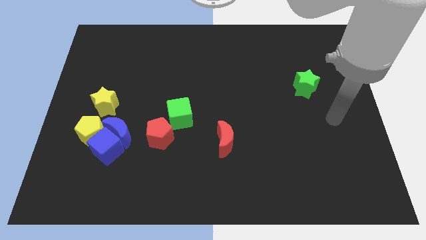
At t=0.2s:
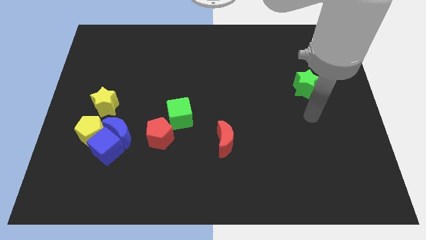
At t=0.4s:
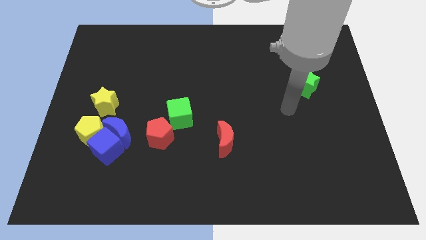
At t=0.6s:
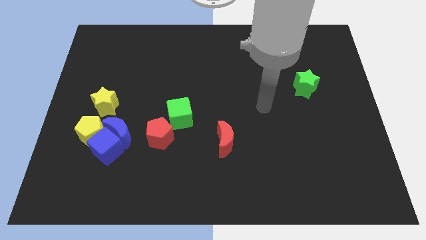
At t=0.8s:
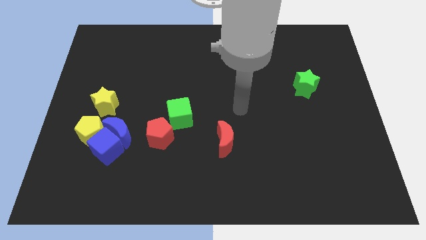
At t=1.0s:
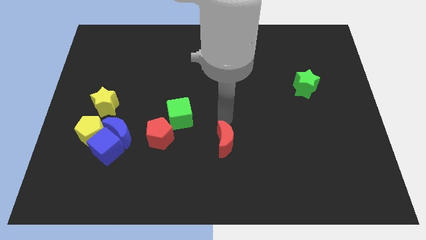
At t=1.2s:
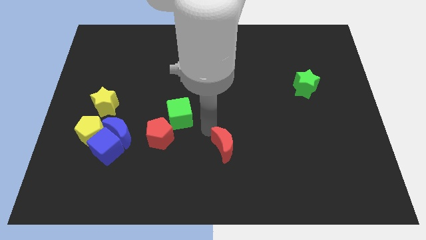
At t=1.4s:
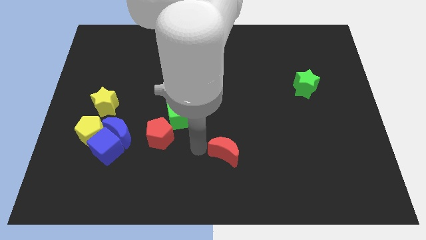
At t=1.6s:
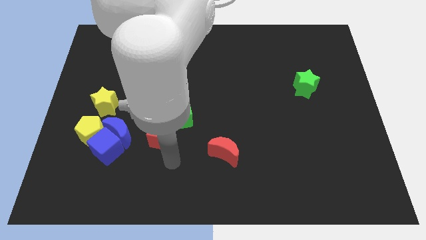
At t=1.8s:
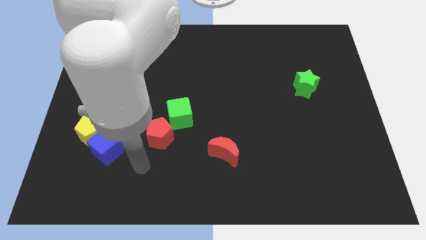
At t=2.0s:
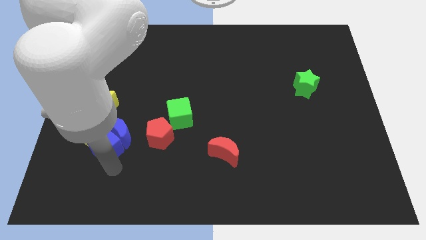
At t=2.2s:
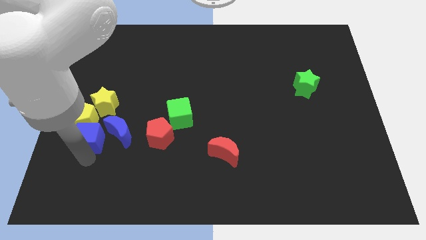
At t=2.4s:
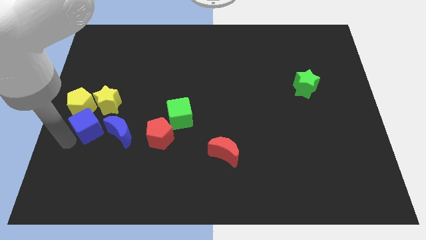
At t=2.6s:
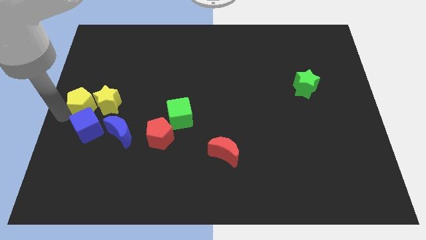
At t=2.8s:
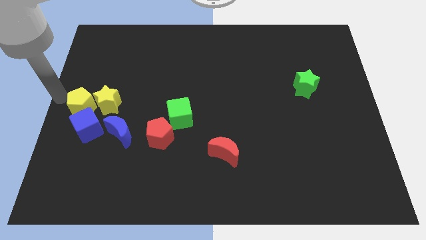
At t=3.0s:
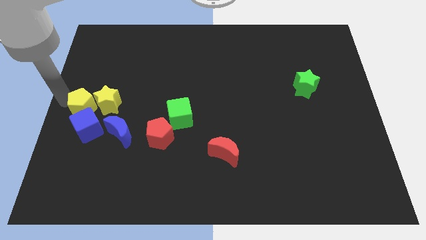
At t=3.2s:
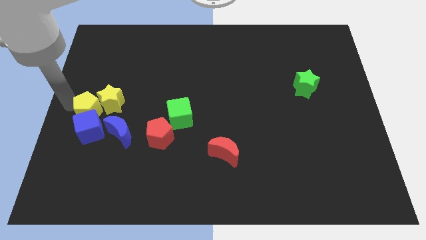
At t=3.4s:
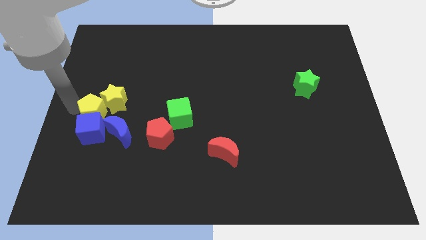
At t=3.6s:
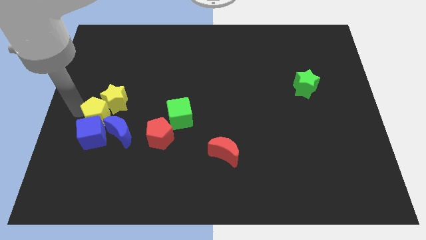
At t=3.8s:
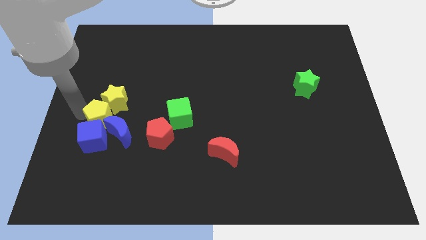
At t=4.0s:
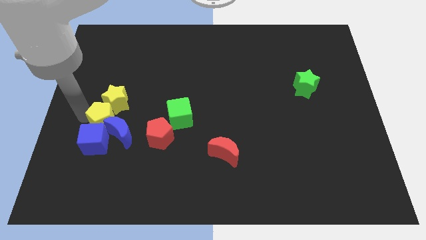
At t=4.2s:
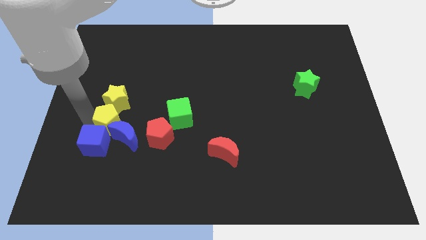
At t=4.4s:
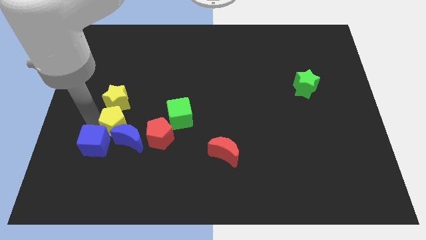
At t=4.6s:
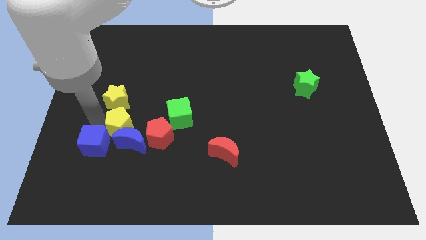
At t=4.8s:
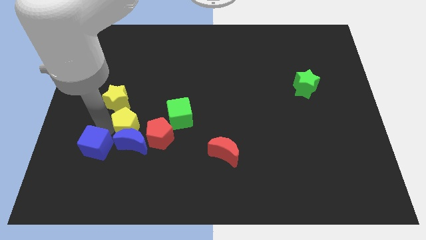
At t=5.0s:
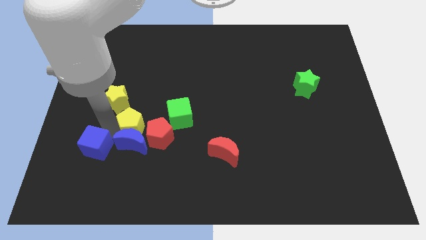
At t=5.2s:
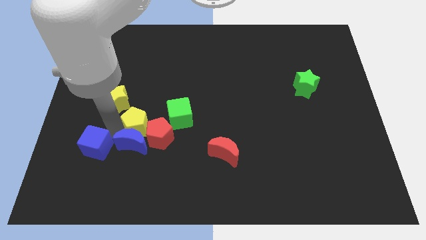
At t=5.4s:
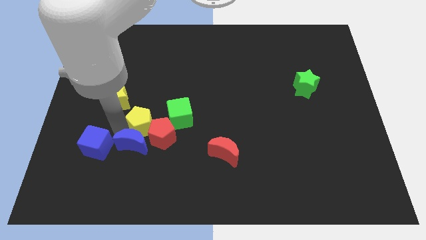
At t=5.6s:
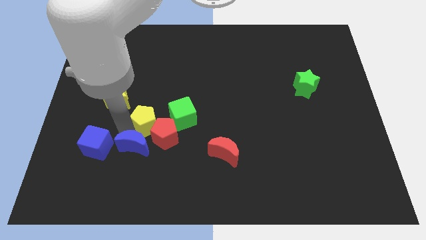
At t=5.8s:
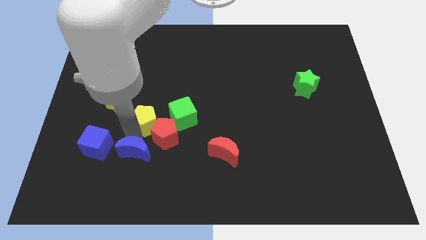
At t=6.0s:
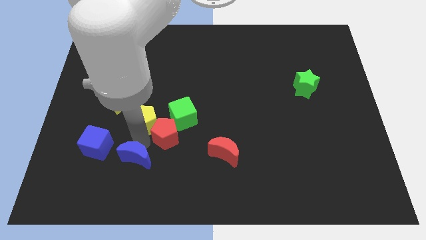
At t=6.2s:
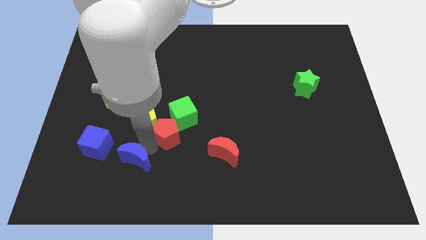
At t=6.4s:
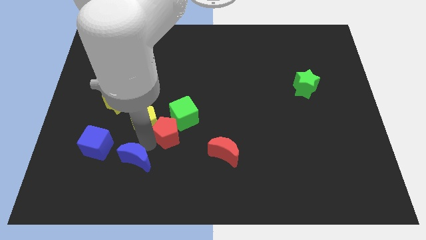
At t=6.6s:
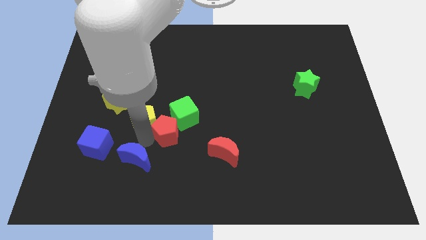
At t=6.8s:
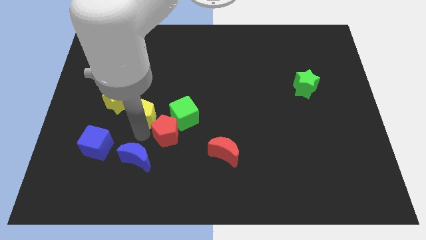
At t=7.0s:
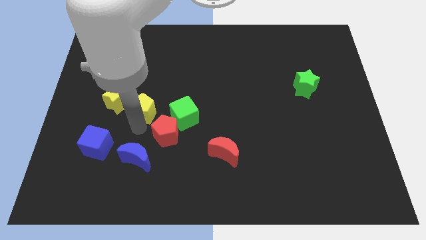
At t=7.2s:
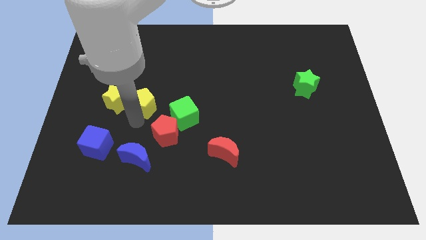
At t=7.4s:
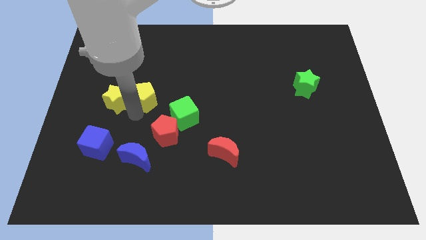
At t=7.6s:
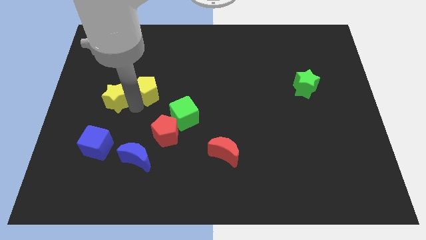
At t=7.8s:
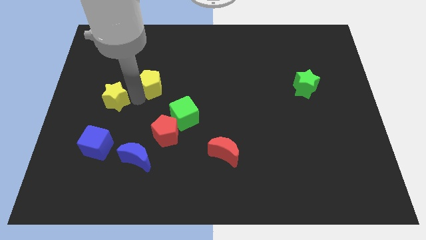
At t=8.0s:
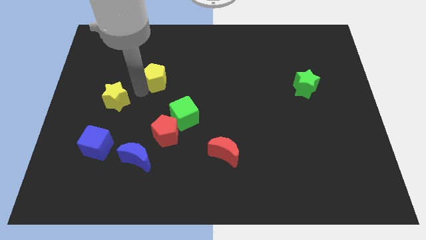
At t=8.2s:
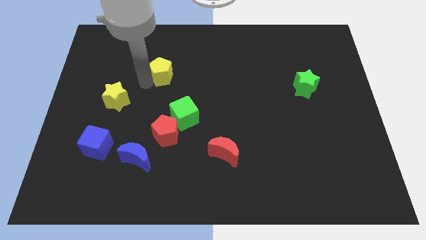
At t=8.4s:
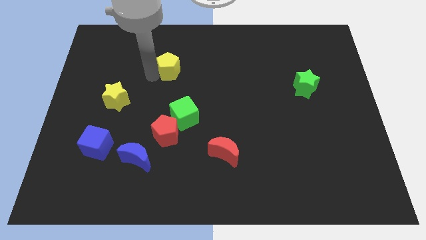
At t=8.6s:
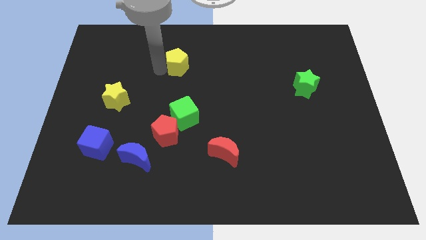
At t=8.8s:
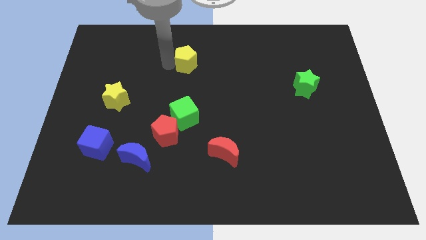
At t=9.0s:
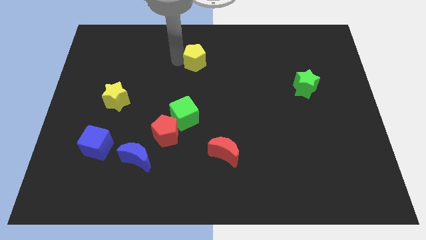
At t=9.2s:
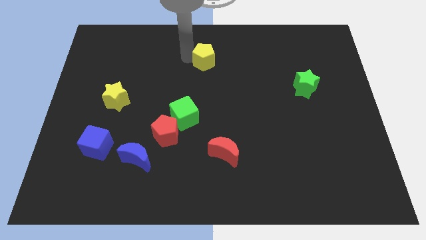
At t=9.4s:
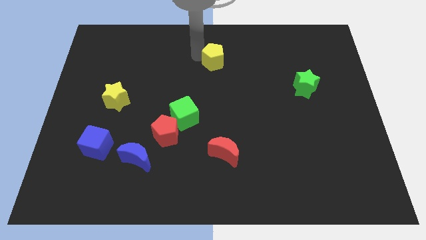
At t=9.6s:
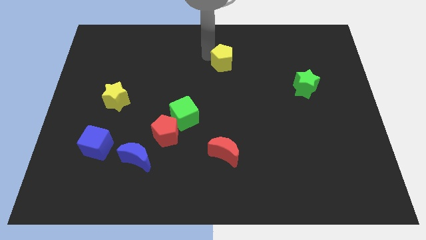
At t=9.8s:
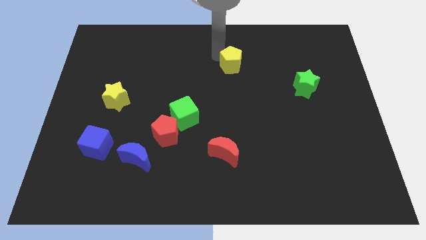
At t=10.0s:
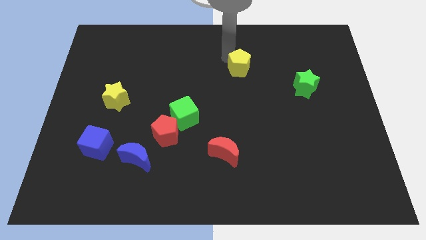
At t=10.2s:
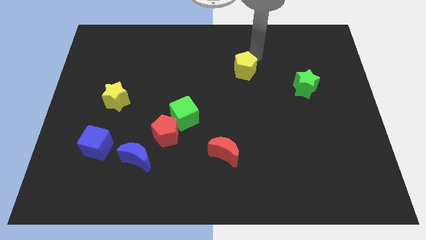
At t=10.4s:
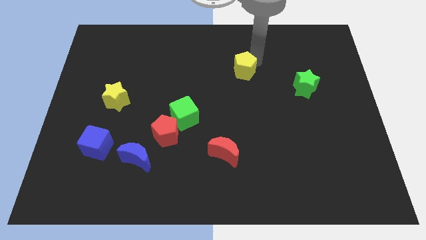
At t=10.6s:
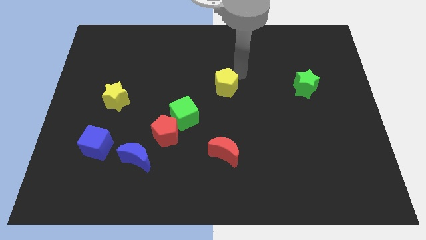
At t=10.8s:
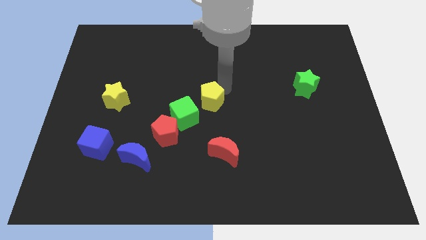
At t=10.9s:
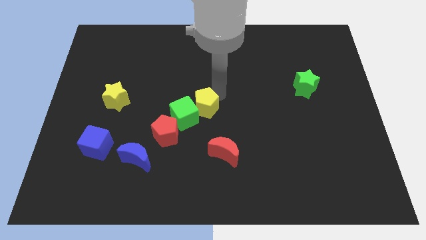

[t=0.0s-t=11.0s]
push the yellow pentagon towards the green cube

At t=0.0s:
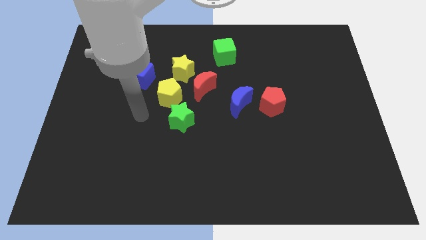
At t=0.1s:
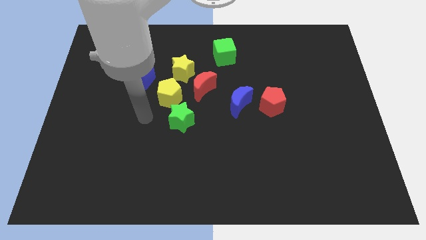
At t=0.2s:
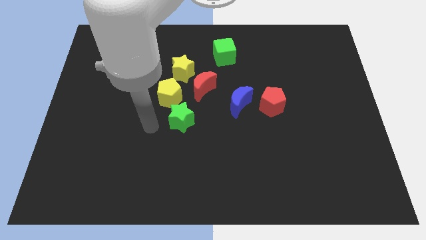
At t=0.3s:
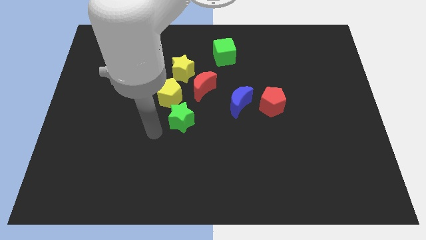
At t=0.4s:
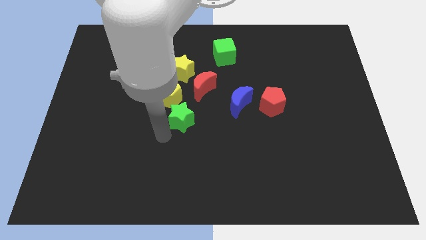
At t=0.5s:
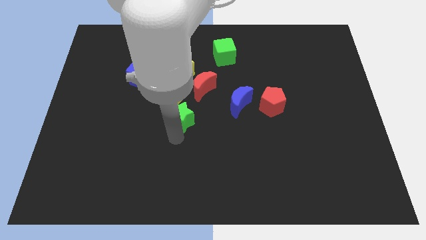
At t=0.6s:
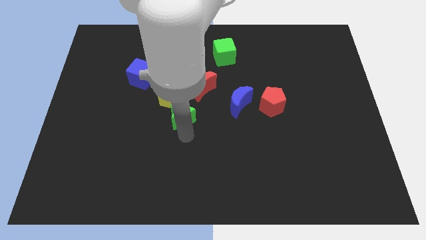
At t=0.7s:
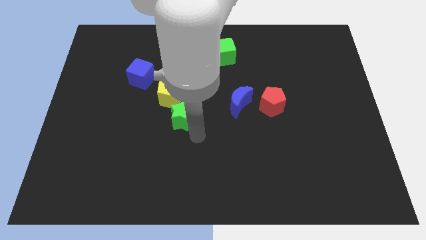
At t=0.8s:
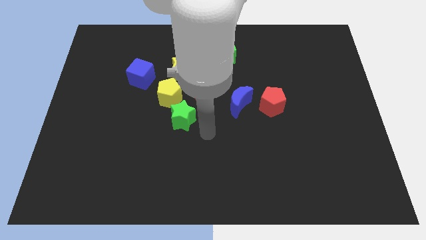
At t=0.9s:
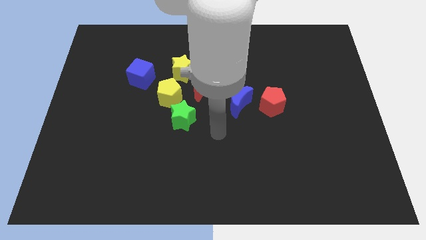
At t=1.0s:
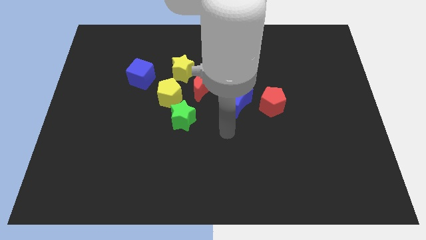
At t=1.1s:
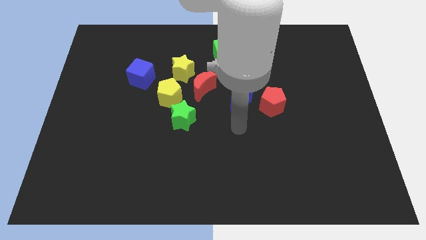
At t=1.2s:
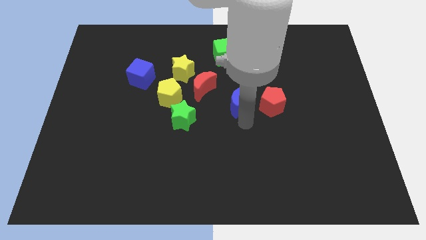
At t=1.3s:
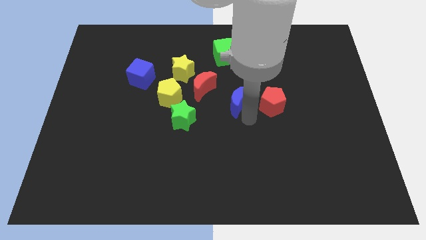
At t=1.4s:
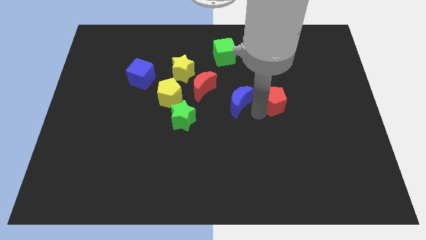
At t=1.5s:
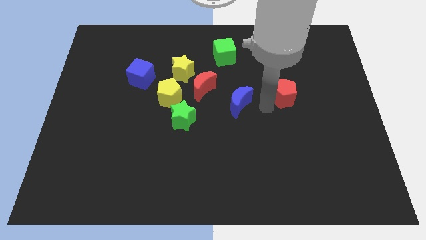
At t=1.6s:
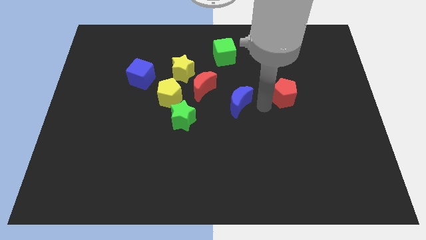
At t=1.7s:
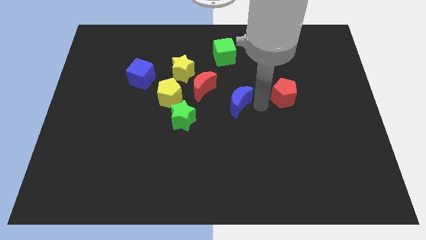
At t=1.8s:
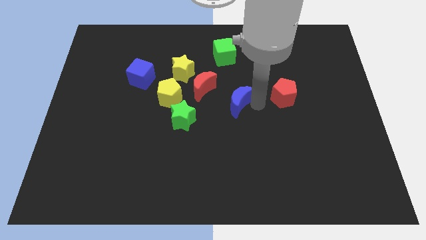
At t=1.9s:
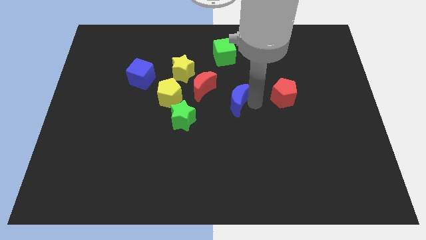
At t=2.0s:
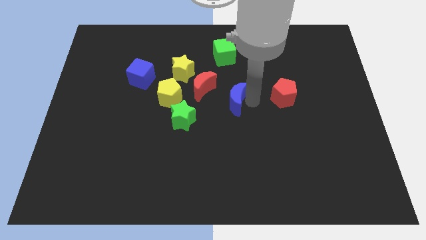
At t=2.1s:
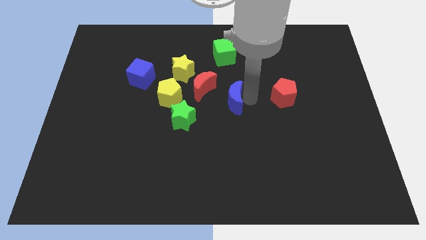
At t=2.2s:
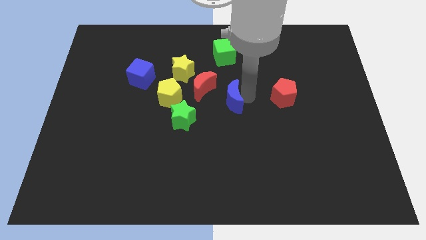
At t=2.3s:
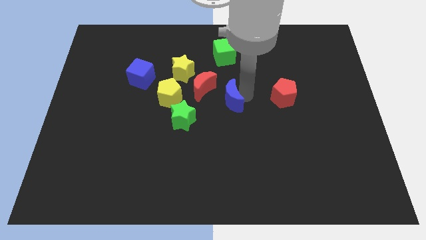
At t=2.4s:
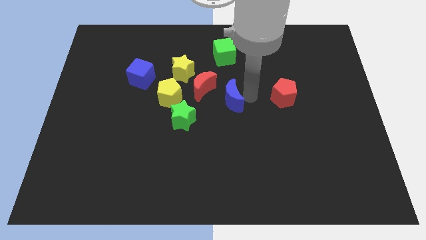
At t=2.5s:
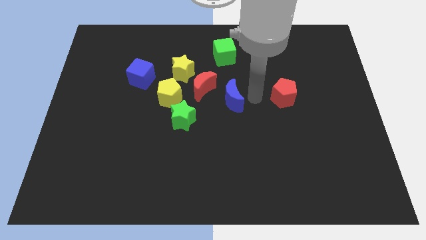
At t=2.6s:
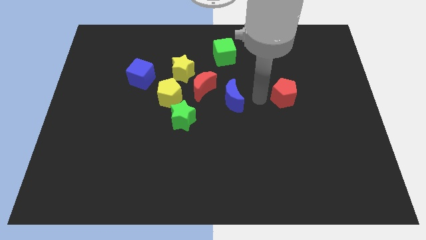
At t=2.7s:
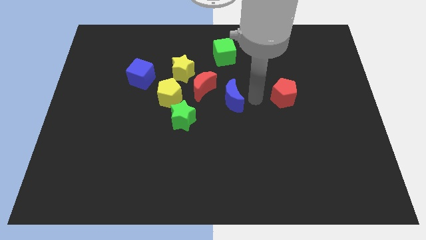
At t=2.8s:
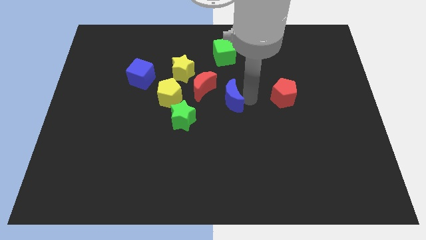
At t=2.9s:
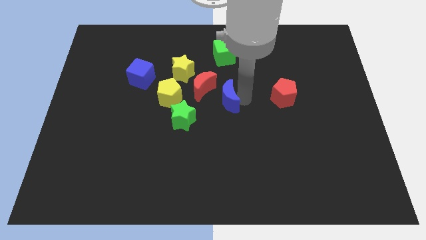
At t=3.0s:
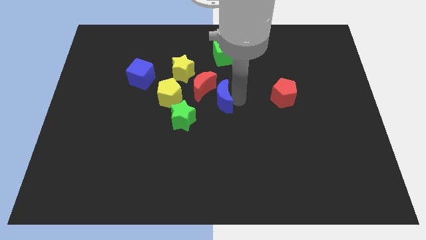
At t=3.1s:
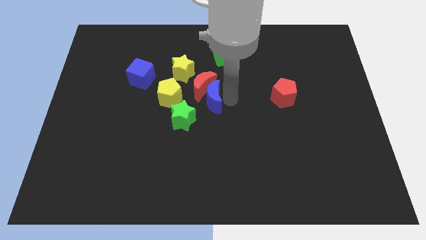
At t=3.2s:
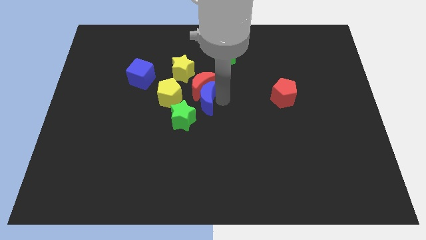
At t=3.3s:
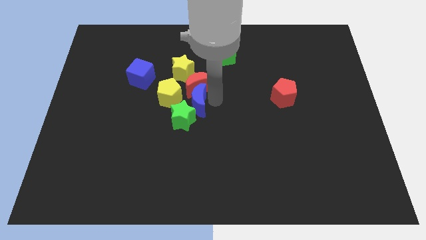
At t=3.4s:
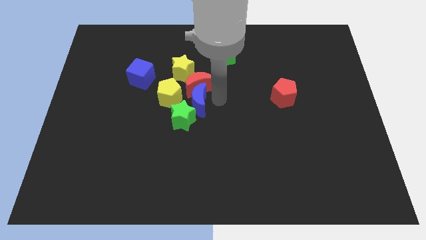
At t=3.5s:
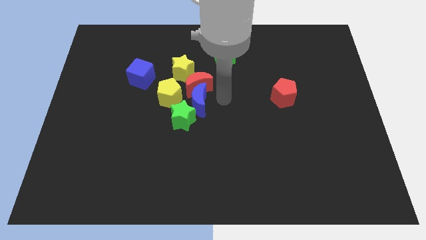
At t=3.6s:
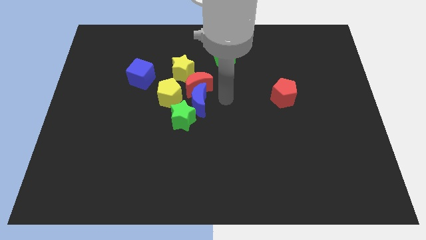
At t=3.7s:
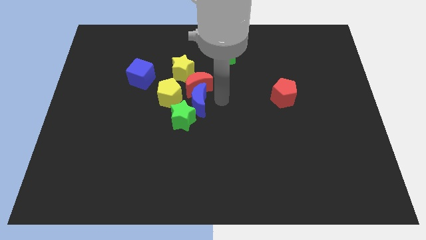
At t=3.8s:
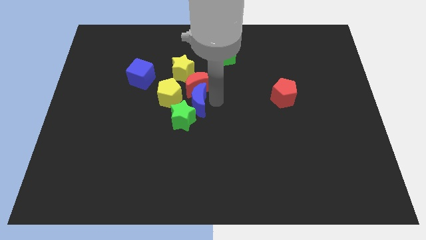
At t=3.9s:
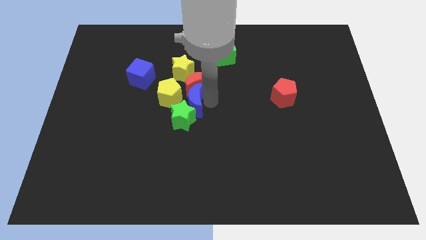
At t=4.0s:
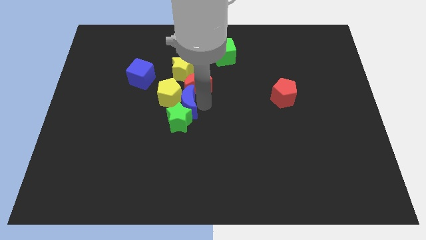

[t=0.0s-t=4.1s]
move the blue moon next to the yellow pentagon
